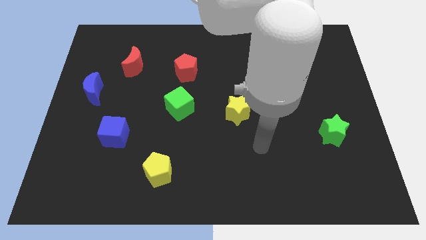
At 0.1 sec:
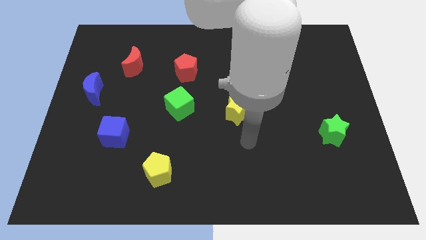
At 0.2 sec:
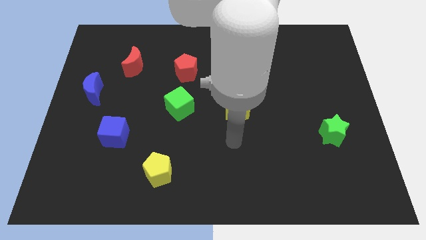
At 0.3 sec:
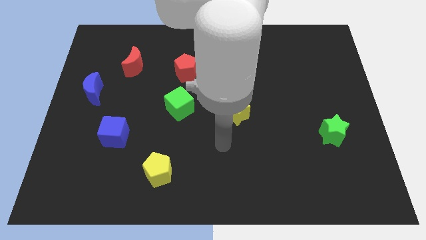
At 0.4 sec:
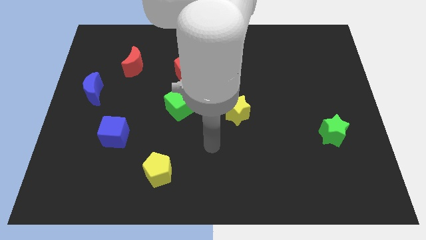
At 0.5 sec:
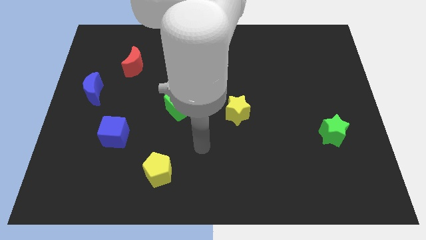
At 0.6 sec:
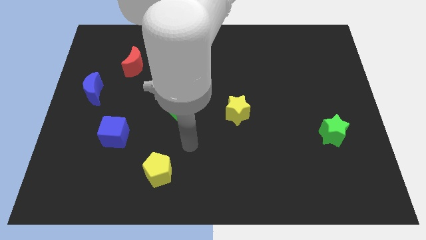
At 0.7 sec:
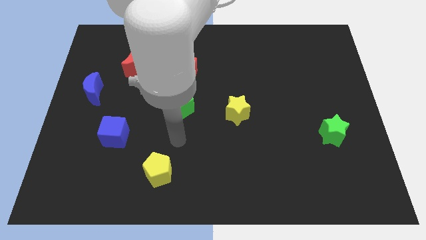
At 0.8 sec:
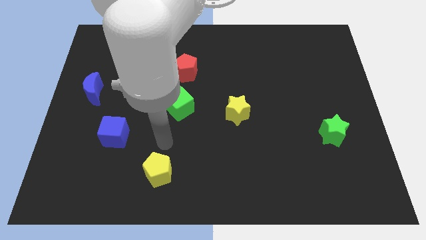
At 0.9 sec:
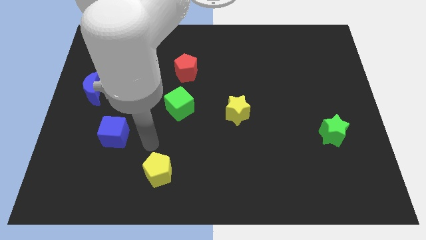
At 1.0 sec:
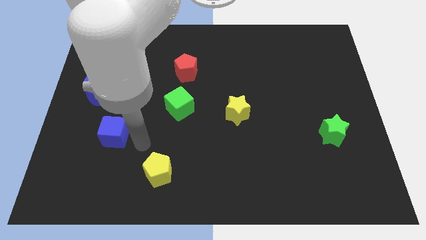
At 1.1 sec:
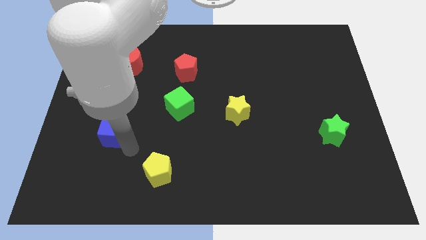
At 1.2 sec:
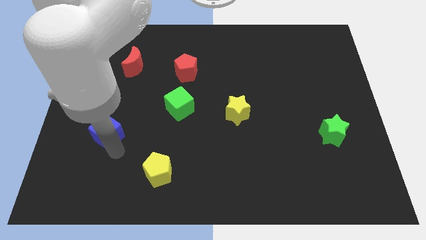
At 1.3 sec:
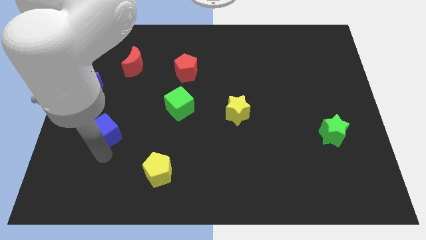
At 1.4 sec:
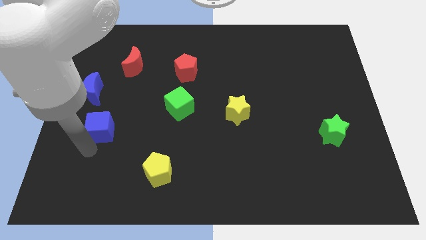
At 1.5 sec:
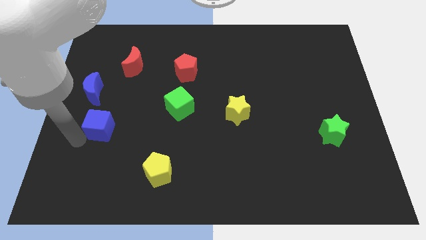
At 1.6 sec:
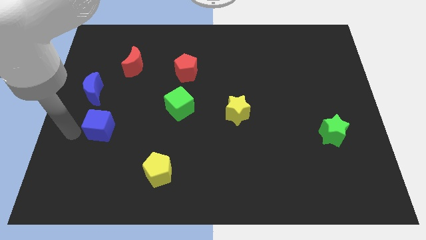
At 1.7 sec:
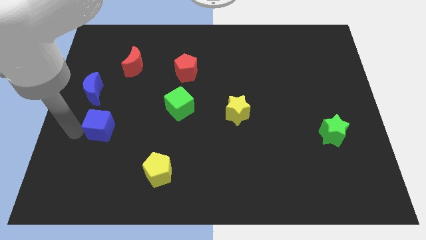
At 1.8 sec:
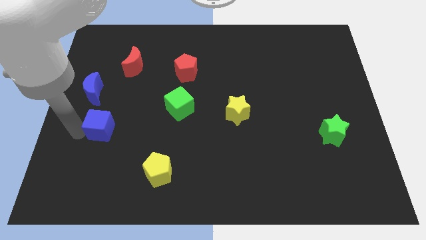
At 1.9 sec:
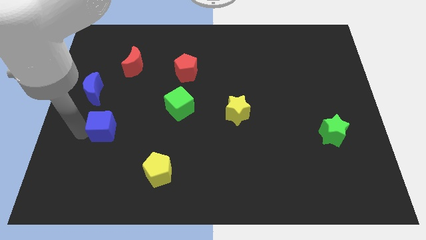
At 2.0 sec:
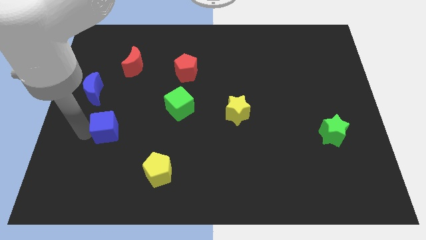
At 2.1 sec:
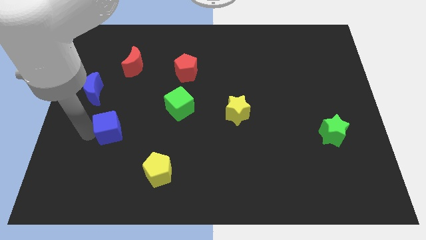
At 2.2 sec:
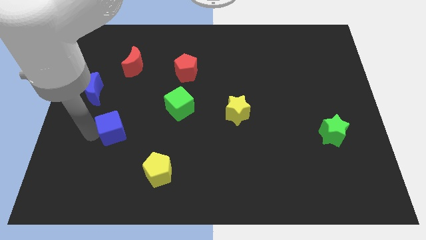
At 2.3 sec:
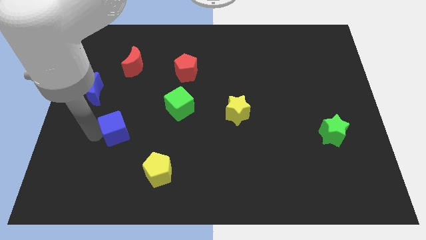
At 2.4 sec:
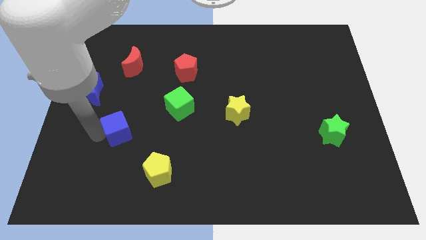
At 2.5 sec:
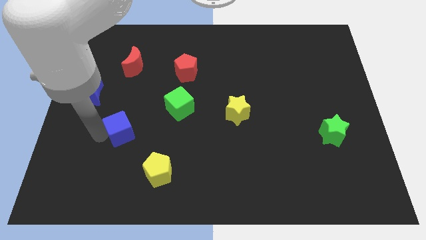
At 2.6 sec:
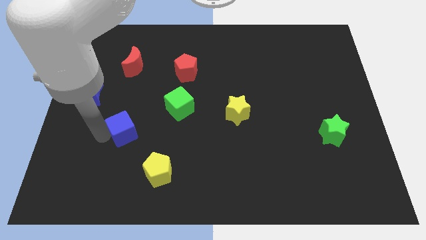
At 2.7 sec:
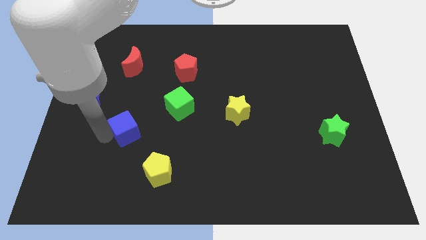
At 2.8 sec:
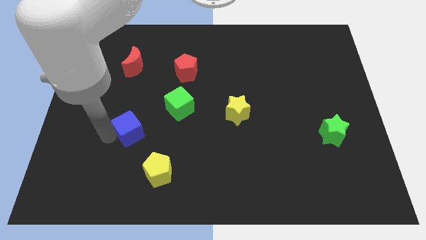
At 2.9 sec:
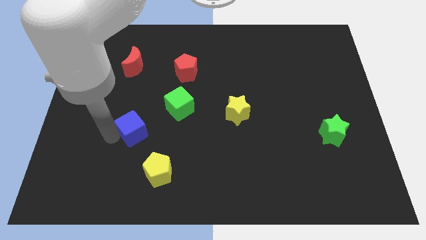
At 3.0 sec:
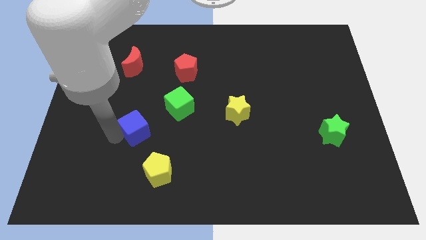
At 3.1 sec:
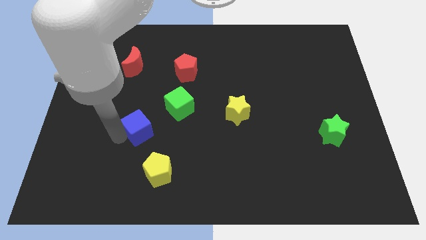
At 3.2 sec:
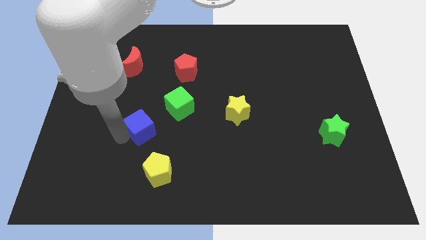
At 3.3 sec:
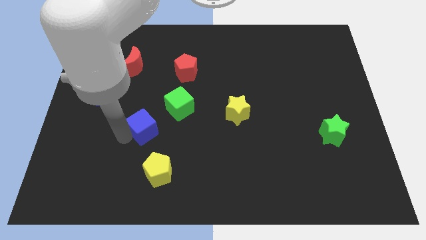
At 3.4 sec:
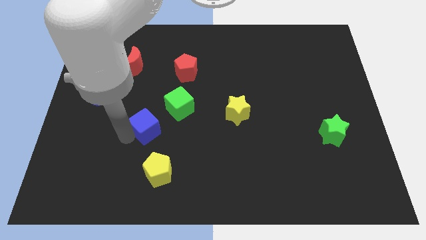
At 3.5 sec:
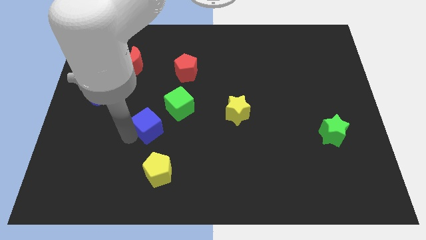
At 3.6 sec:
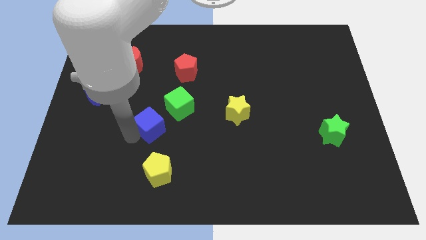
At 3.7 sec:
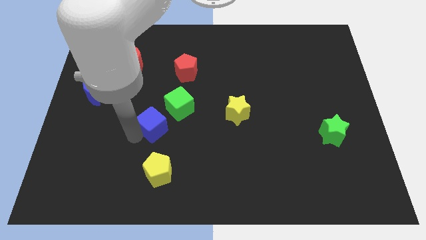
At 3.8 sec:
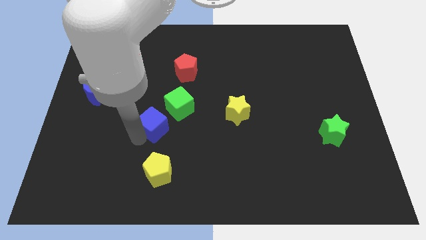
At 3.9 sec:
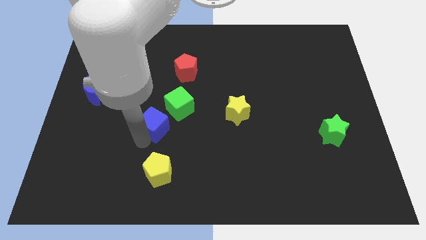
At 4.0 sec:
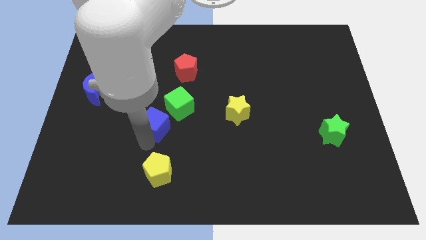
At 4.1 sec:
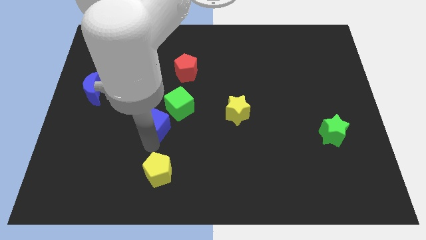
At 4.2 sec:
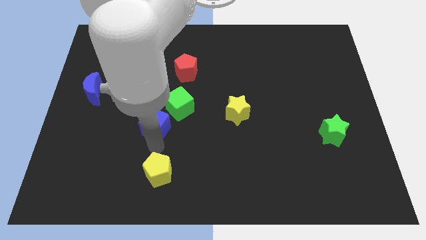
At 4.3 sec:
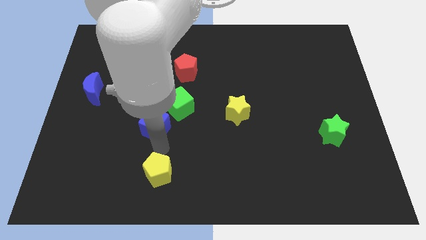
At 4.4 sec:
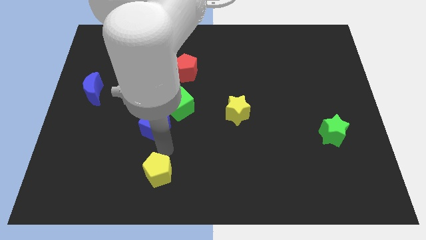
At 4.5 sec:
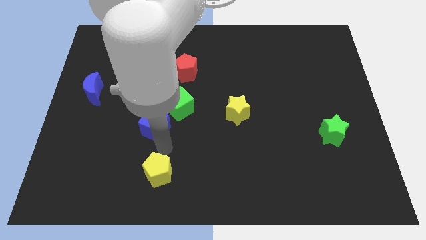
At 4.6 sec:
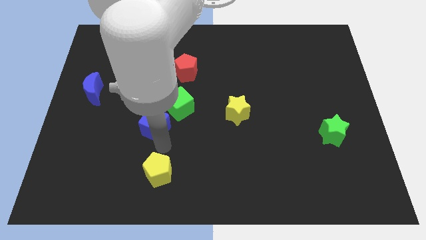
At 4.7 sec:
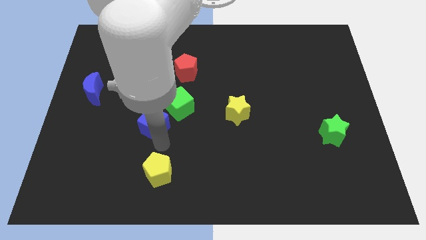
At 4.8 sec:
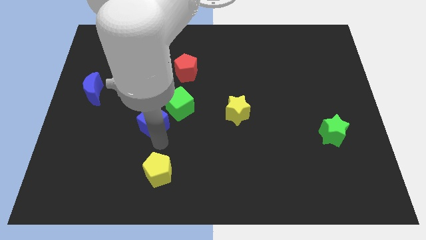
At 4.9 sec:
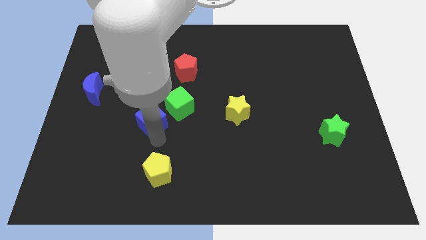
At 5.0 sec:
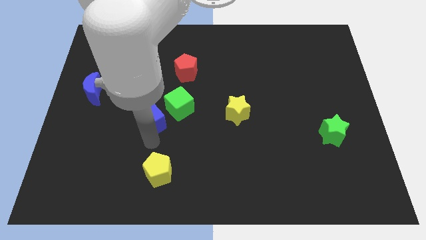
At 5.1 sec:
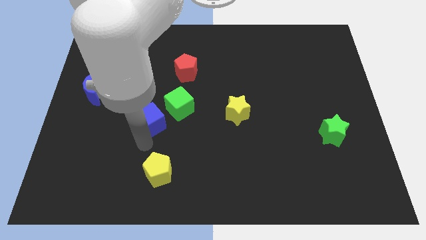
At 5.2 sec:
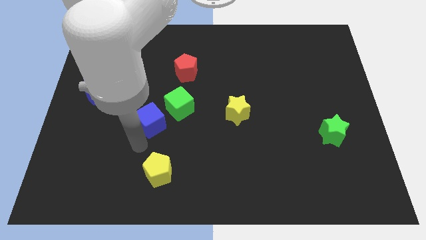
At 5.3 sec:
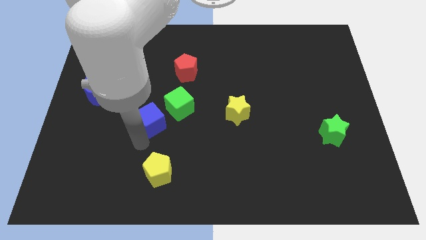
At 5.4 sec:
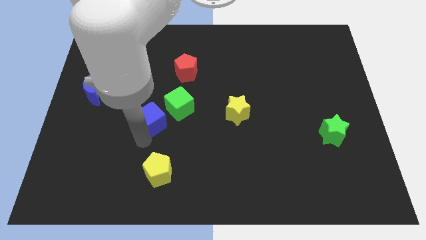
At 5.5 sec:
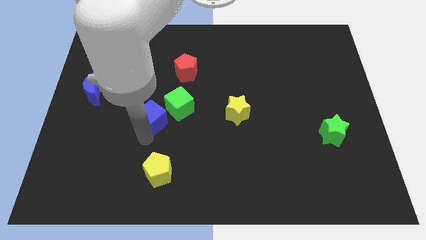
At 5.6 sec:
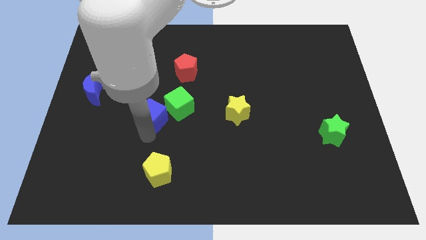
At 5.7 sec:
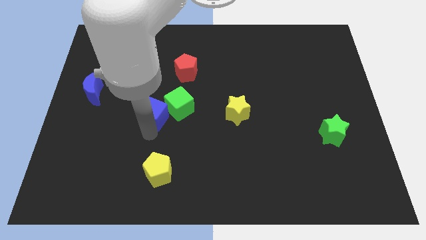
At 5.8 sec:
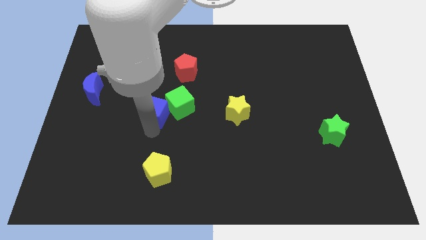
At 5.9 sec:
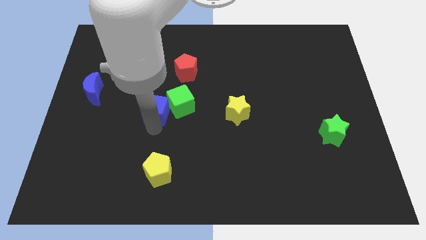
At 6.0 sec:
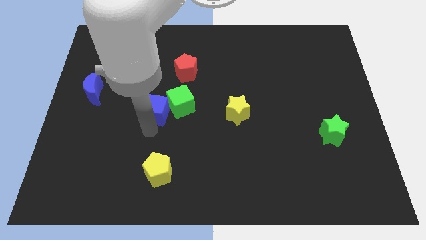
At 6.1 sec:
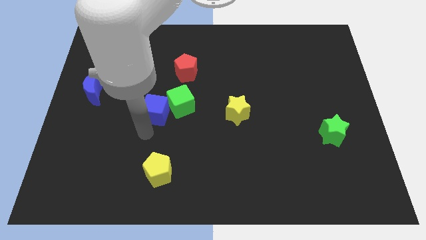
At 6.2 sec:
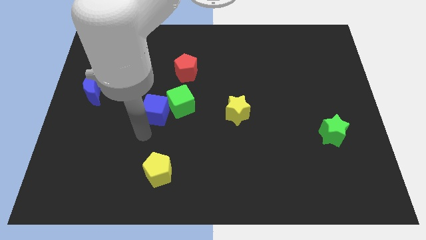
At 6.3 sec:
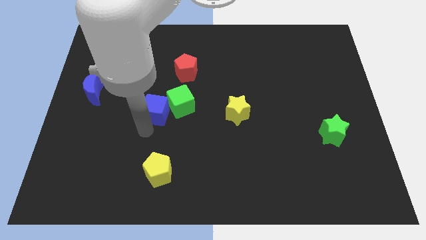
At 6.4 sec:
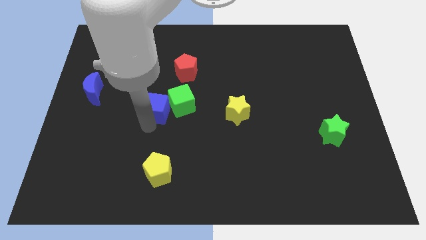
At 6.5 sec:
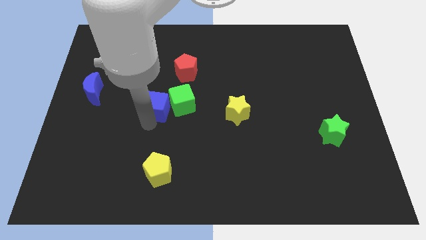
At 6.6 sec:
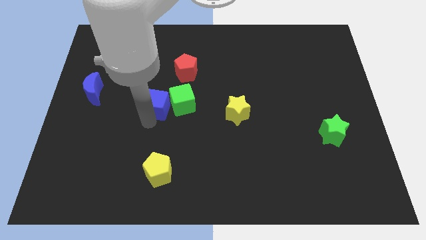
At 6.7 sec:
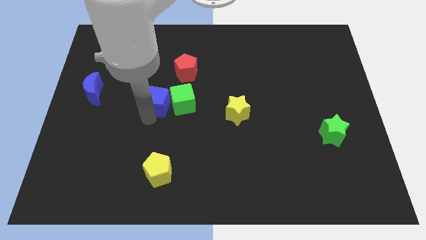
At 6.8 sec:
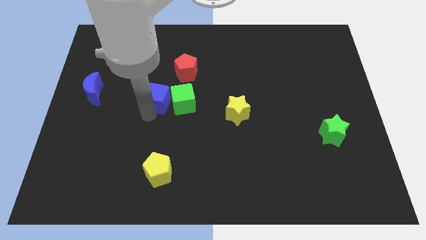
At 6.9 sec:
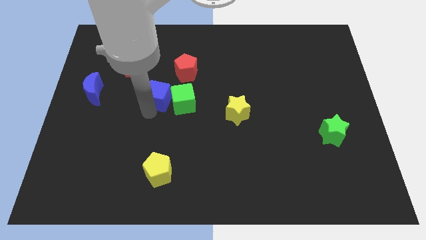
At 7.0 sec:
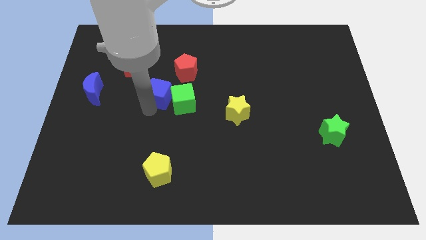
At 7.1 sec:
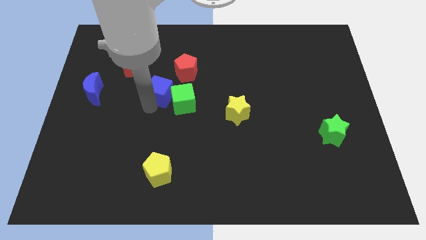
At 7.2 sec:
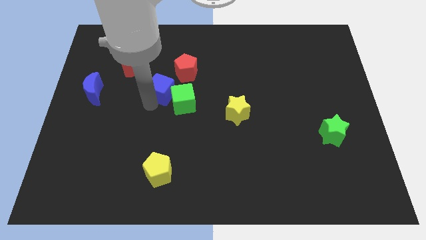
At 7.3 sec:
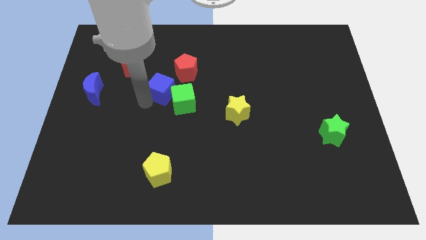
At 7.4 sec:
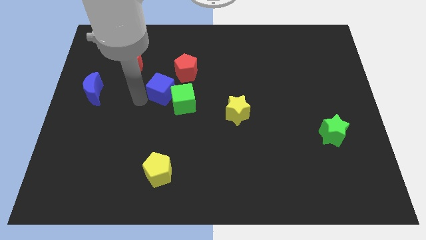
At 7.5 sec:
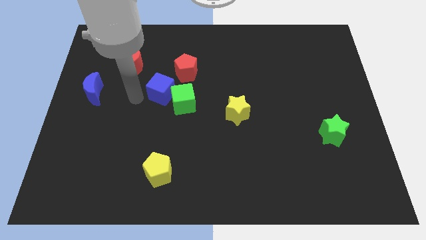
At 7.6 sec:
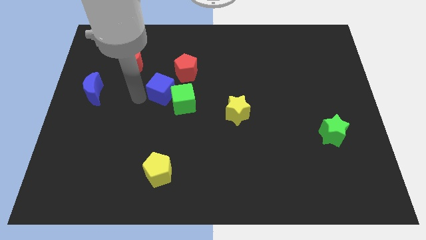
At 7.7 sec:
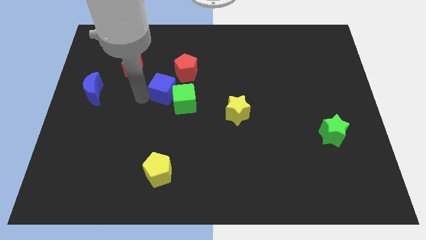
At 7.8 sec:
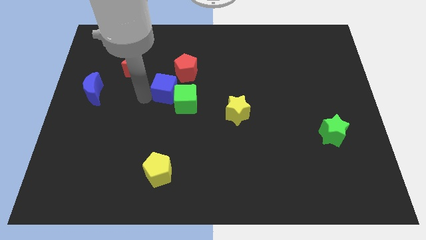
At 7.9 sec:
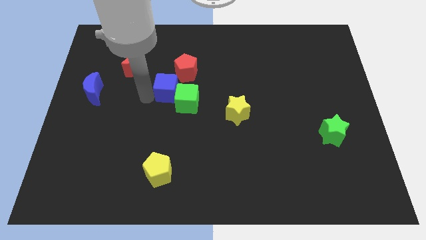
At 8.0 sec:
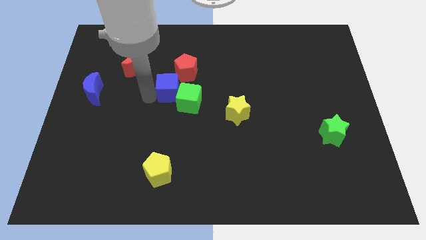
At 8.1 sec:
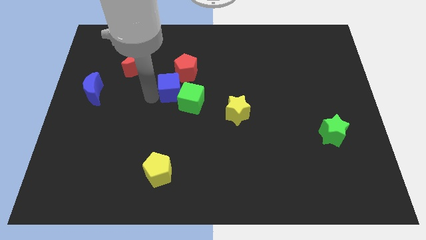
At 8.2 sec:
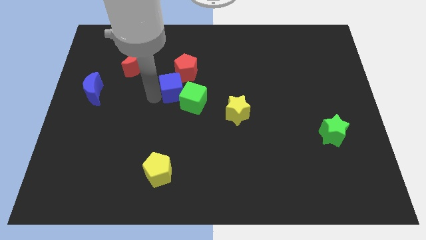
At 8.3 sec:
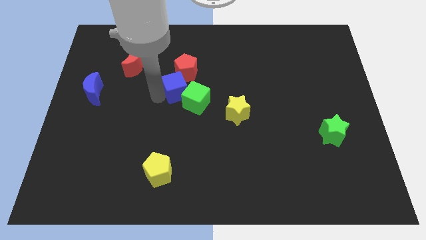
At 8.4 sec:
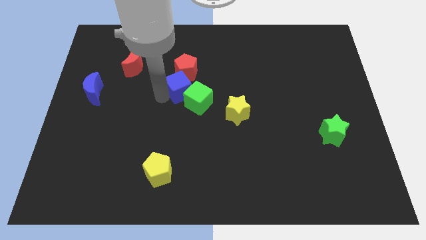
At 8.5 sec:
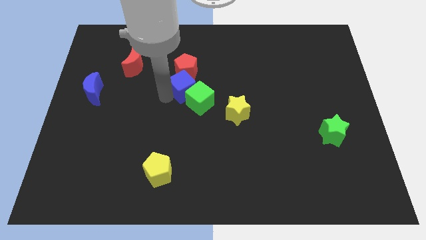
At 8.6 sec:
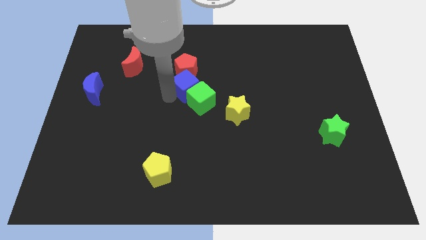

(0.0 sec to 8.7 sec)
slide the blue cube upwards and then right
